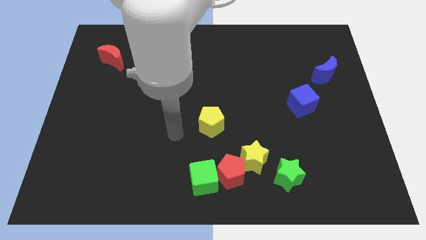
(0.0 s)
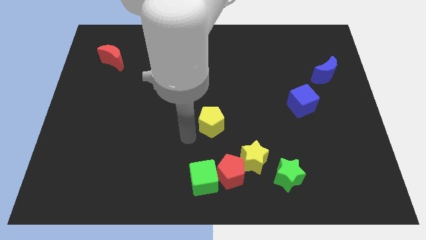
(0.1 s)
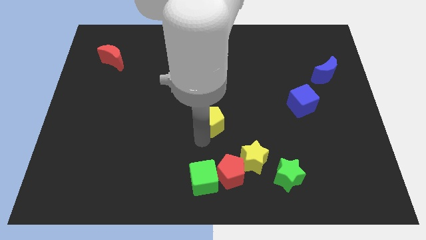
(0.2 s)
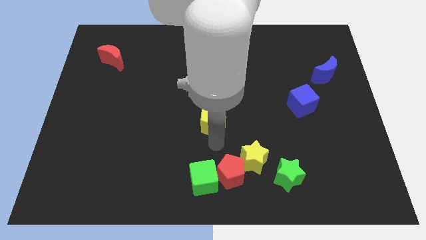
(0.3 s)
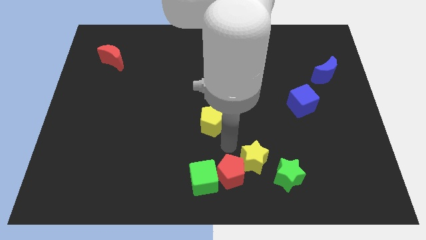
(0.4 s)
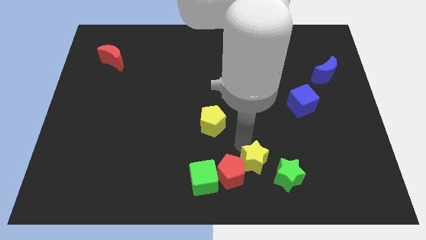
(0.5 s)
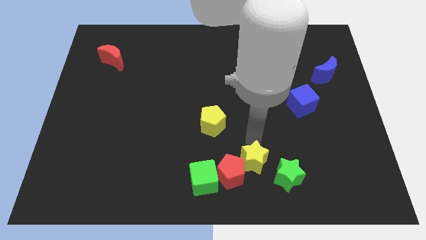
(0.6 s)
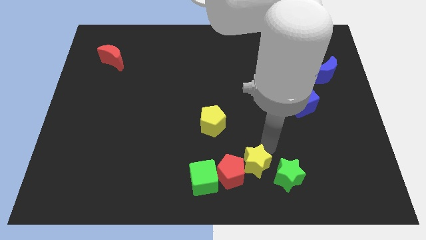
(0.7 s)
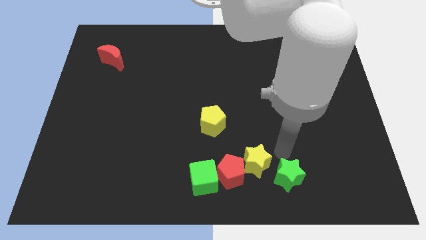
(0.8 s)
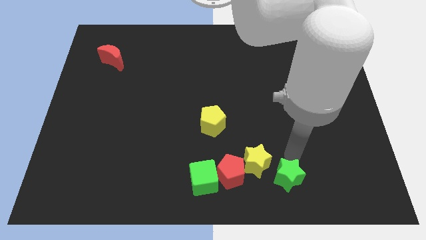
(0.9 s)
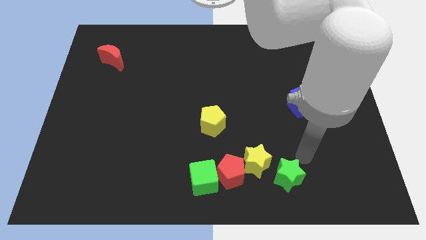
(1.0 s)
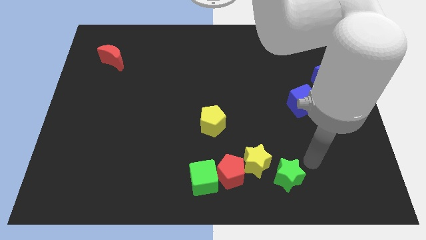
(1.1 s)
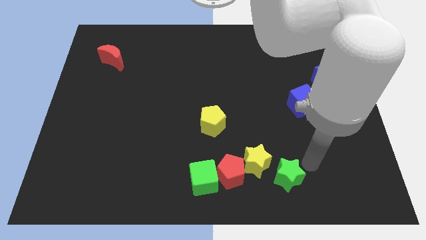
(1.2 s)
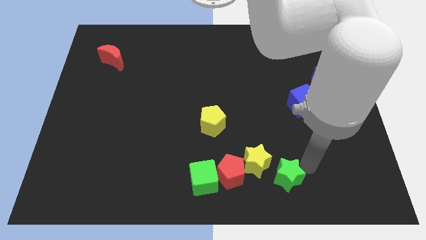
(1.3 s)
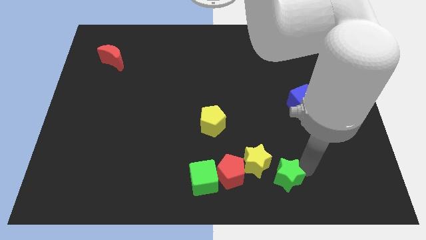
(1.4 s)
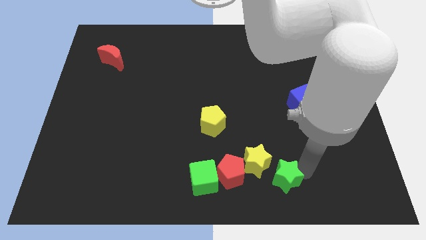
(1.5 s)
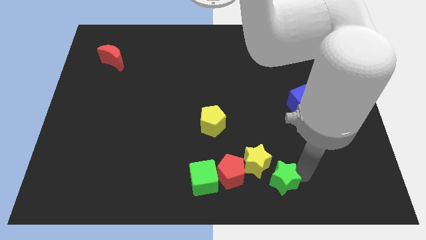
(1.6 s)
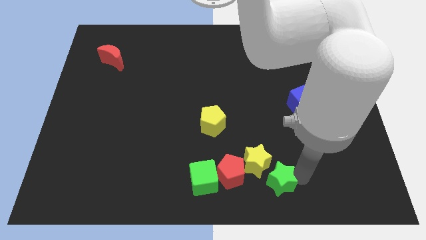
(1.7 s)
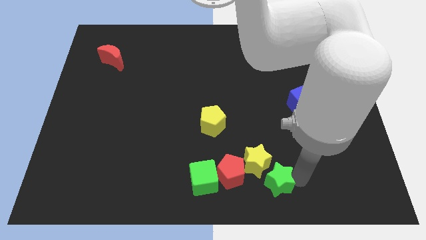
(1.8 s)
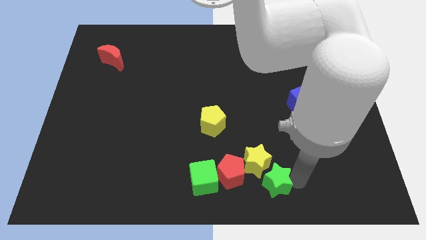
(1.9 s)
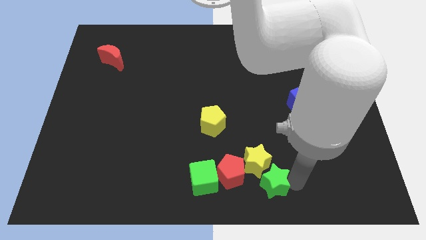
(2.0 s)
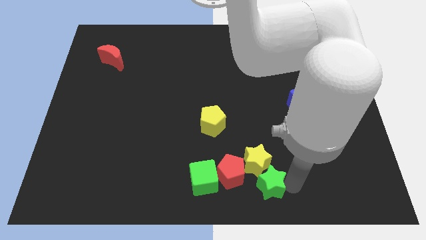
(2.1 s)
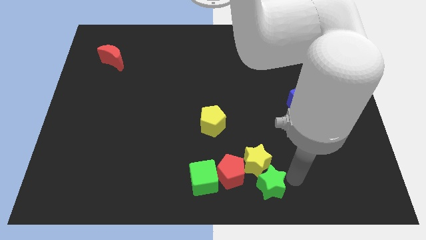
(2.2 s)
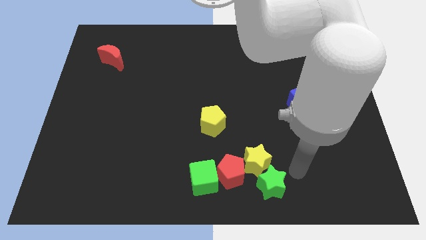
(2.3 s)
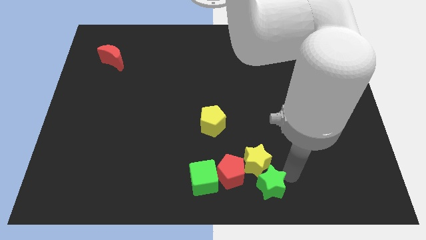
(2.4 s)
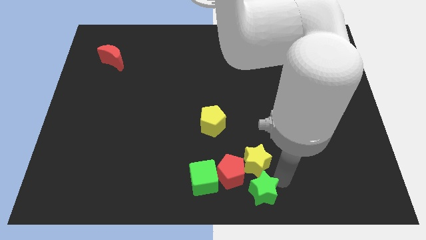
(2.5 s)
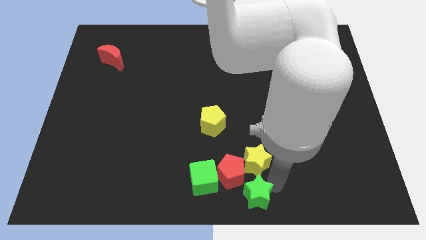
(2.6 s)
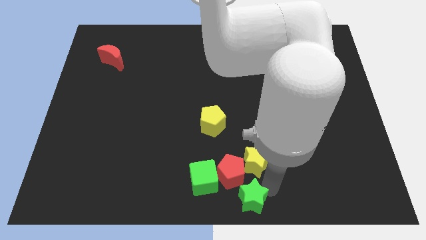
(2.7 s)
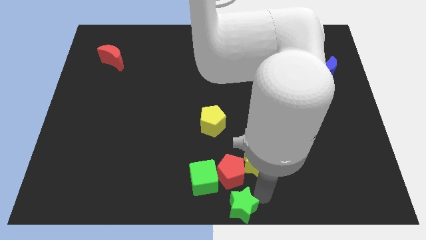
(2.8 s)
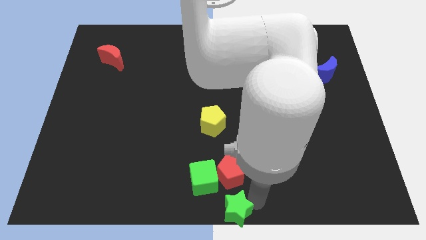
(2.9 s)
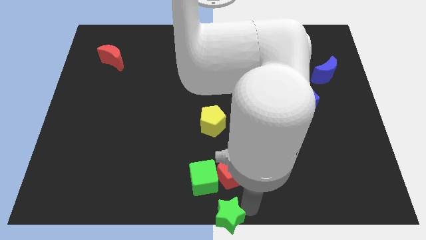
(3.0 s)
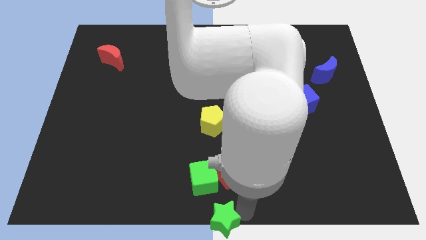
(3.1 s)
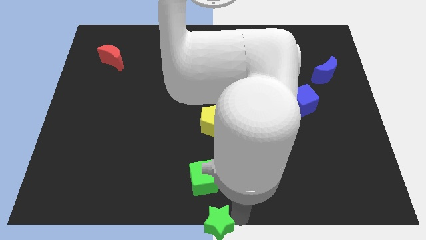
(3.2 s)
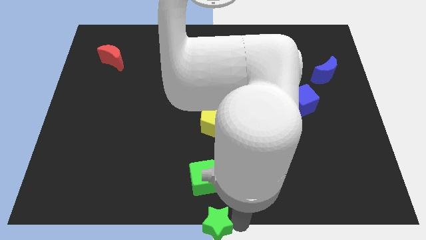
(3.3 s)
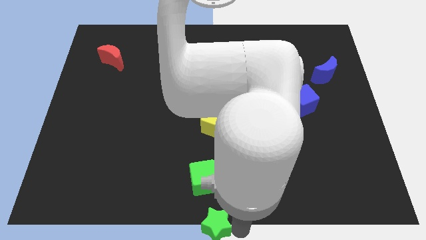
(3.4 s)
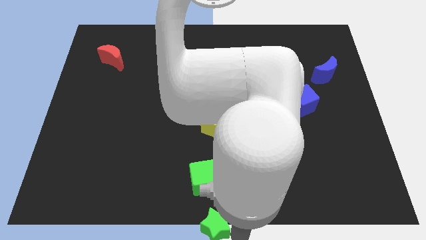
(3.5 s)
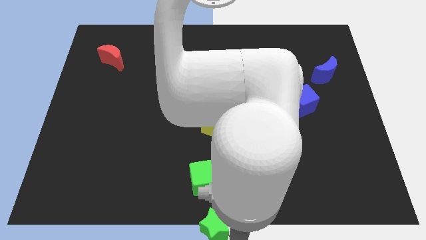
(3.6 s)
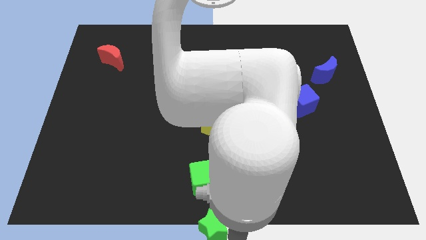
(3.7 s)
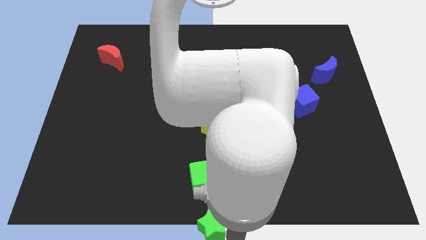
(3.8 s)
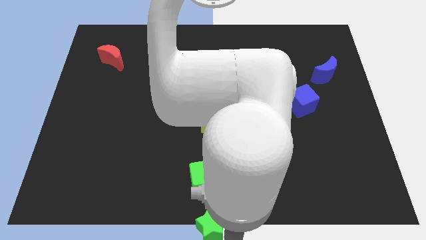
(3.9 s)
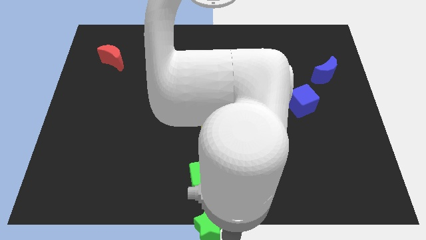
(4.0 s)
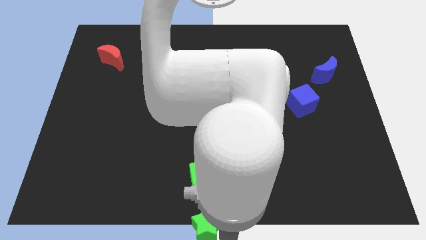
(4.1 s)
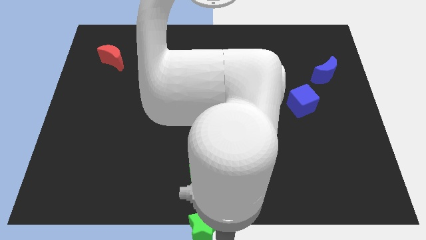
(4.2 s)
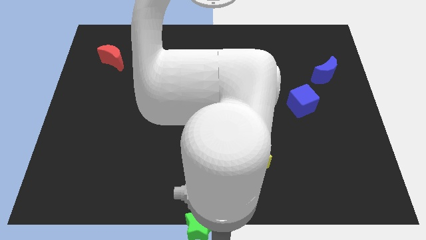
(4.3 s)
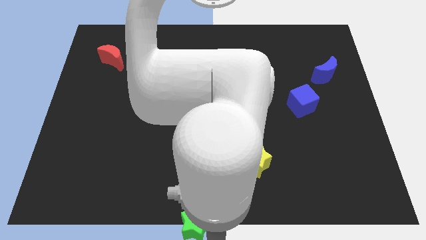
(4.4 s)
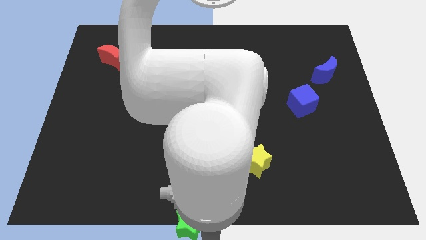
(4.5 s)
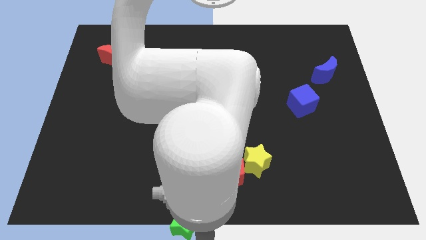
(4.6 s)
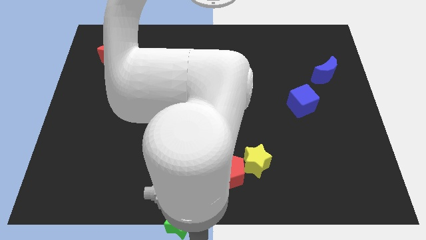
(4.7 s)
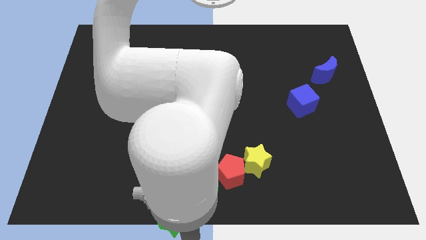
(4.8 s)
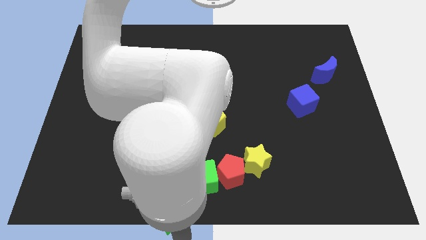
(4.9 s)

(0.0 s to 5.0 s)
slide the green star to the left

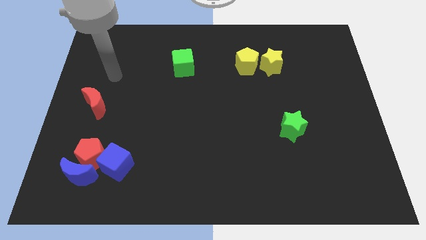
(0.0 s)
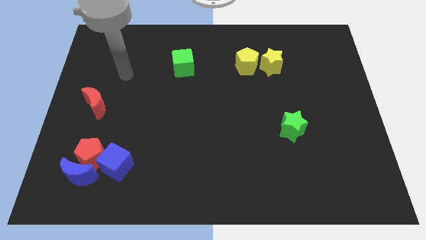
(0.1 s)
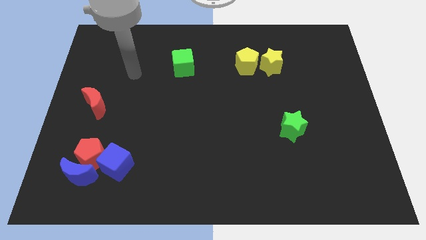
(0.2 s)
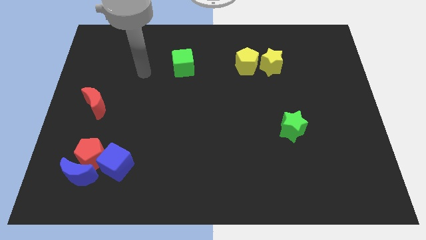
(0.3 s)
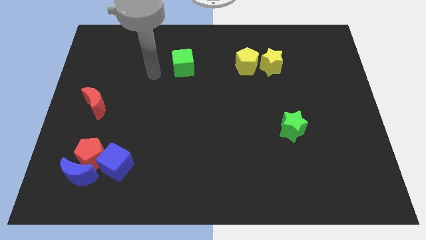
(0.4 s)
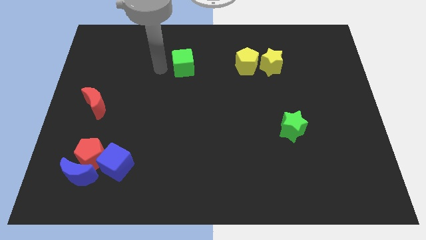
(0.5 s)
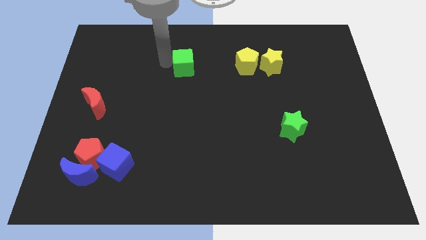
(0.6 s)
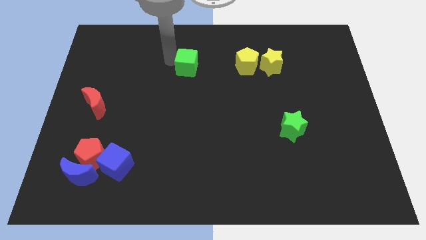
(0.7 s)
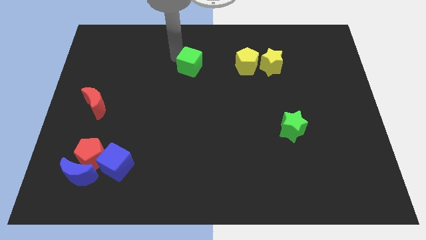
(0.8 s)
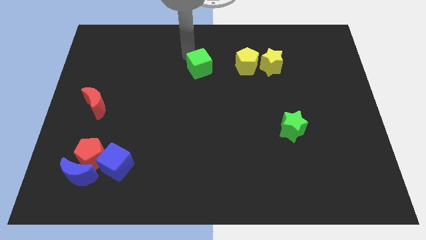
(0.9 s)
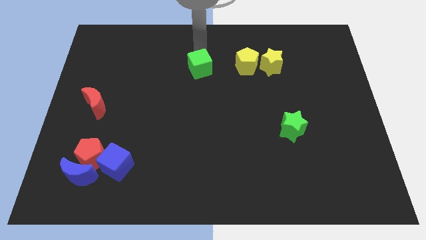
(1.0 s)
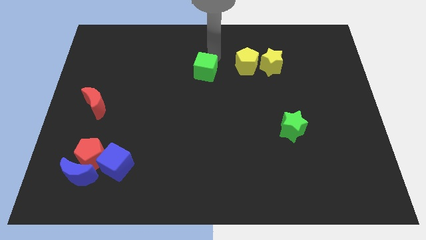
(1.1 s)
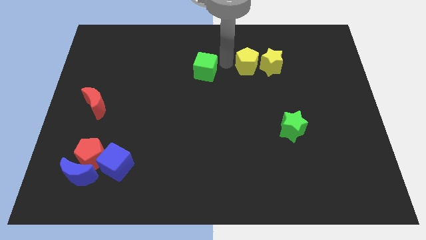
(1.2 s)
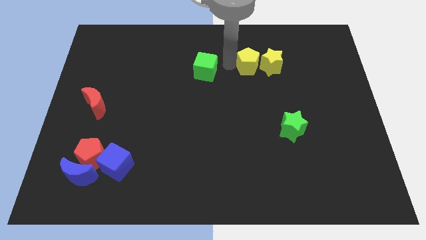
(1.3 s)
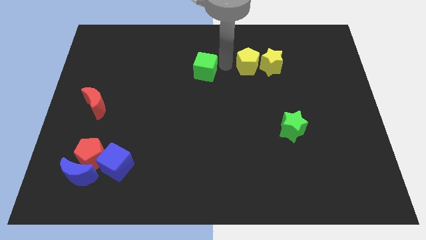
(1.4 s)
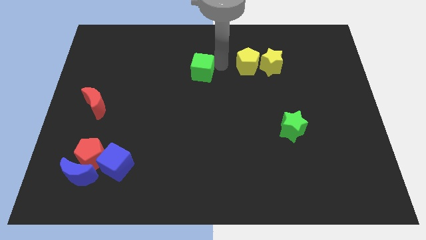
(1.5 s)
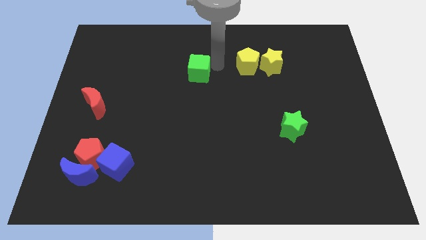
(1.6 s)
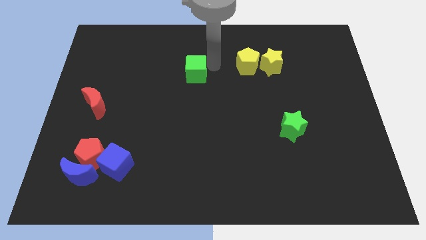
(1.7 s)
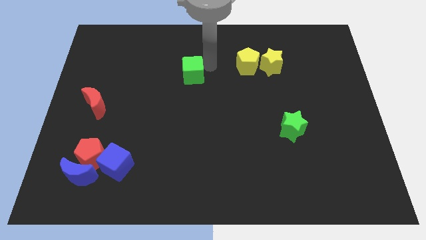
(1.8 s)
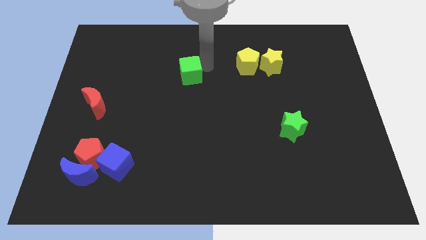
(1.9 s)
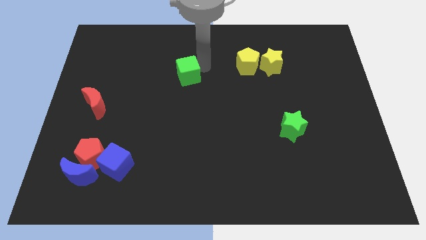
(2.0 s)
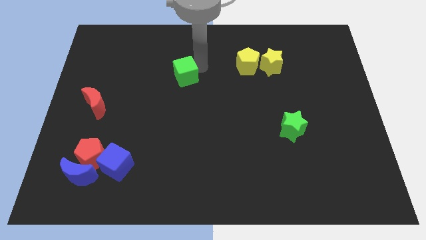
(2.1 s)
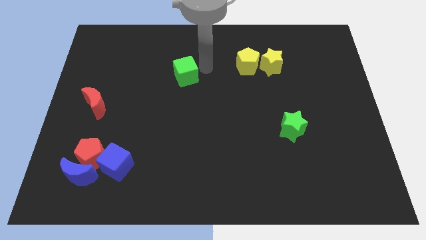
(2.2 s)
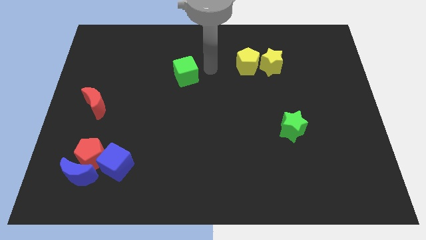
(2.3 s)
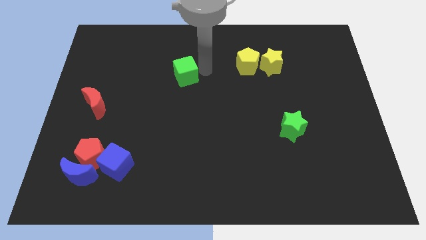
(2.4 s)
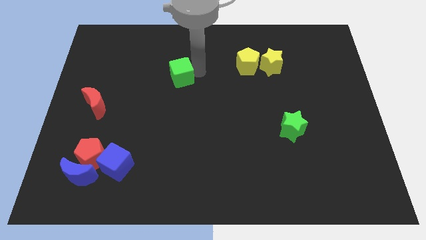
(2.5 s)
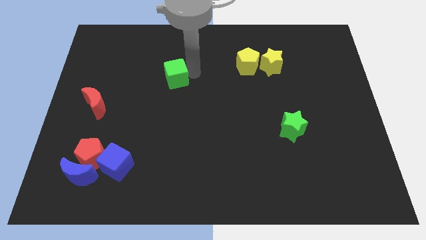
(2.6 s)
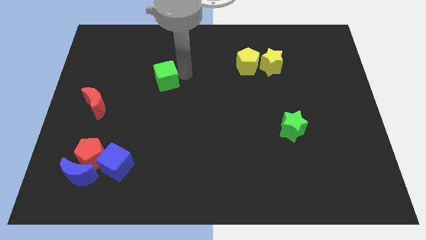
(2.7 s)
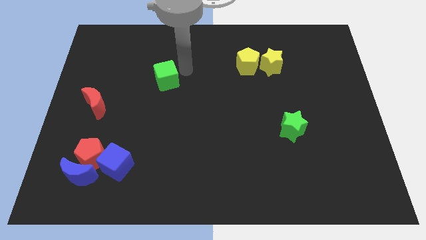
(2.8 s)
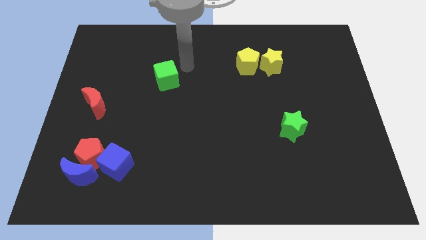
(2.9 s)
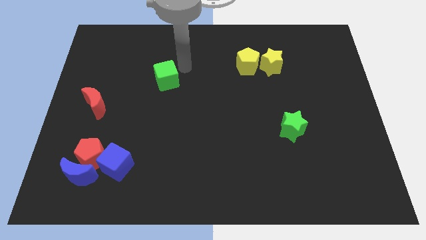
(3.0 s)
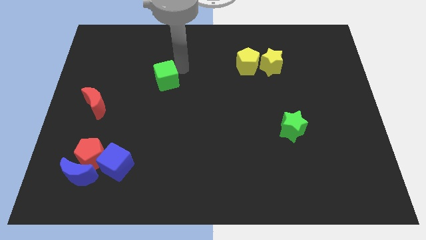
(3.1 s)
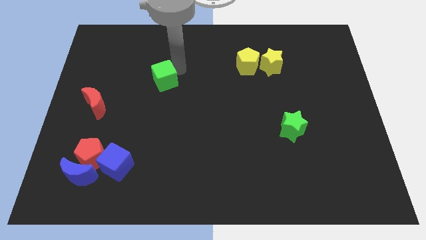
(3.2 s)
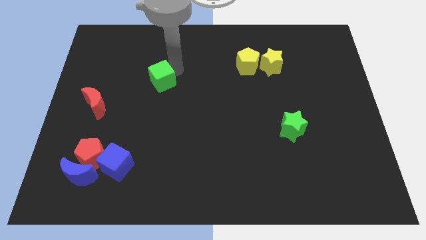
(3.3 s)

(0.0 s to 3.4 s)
slightly move the green cube downwards and then left
